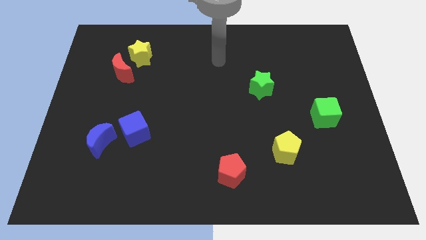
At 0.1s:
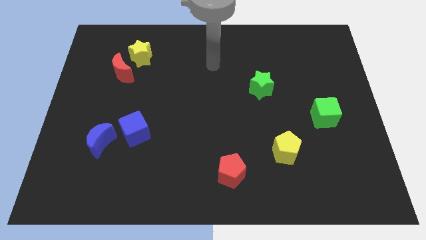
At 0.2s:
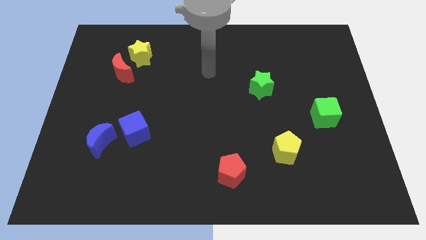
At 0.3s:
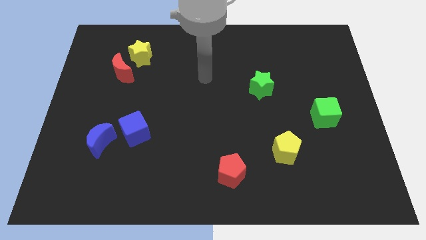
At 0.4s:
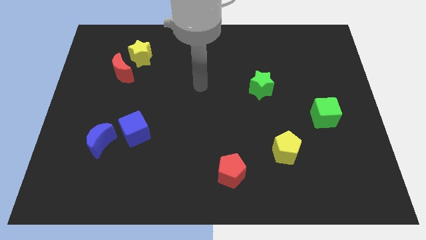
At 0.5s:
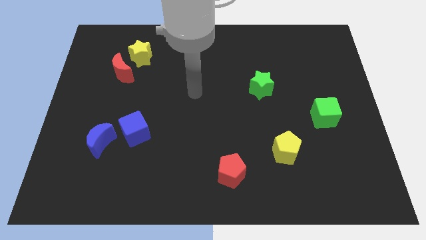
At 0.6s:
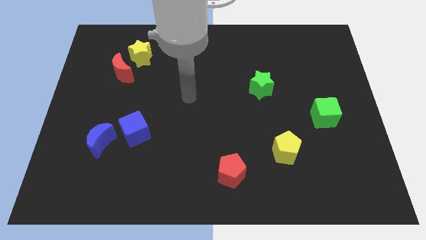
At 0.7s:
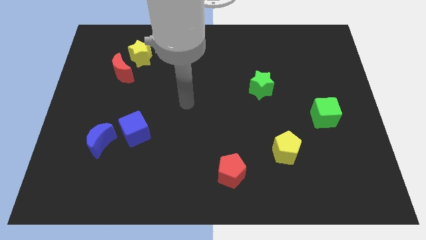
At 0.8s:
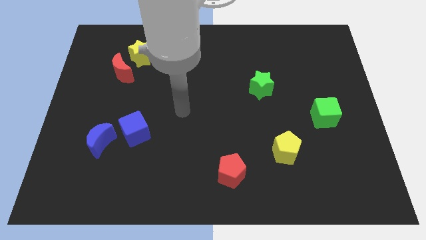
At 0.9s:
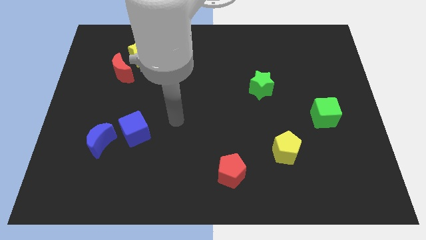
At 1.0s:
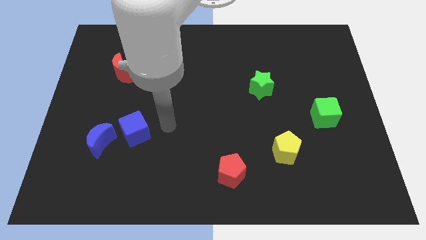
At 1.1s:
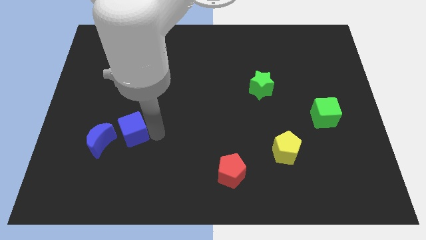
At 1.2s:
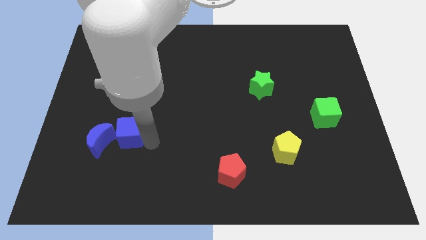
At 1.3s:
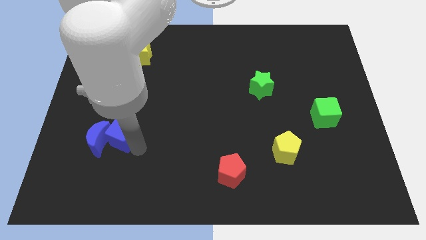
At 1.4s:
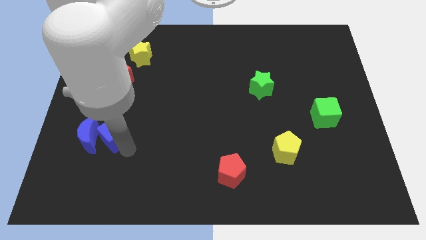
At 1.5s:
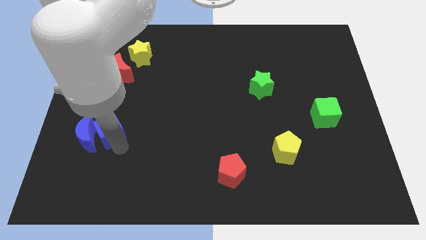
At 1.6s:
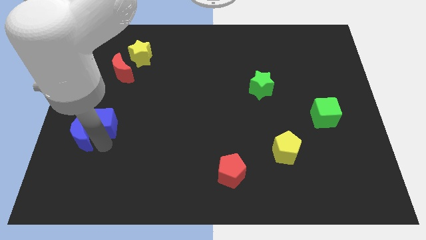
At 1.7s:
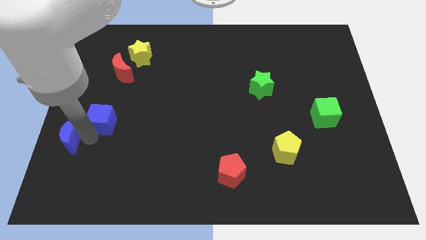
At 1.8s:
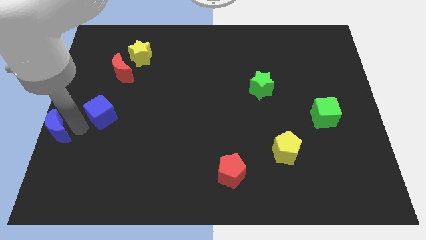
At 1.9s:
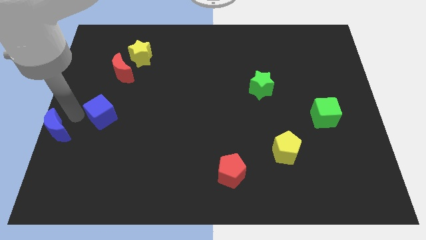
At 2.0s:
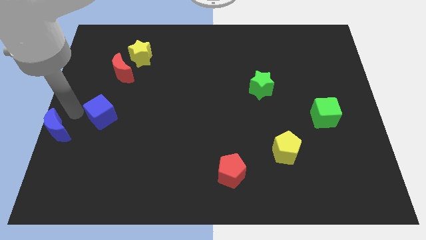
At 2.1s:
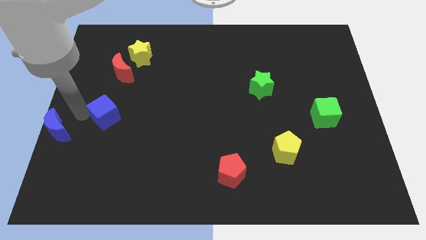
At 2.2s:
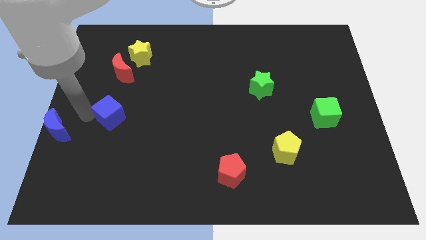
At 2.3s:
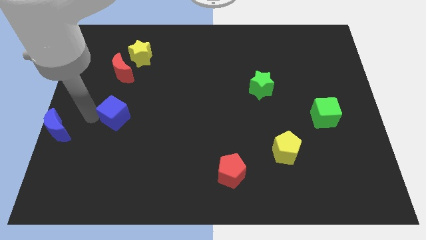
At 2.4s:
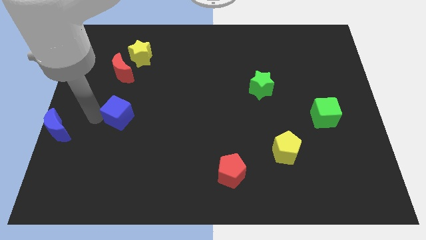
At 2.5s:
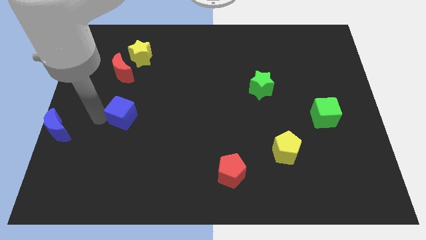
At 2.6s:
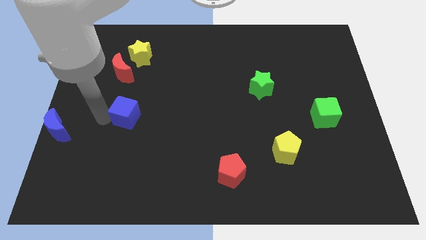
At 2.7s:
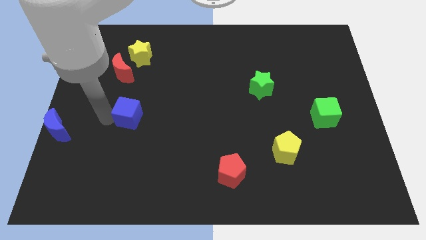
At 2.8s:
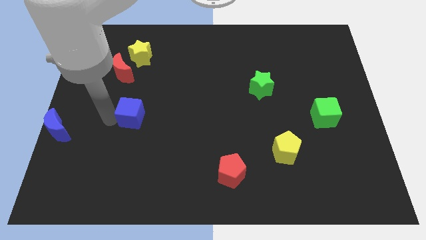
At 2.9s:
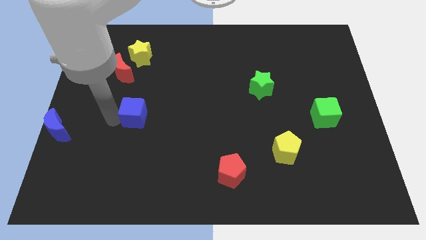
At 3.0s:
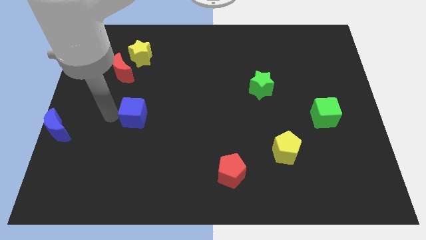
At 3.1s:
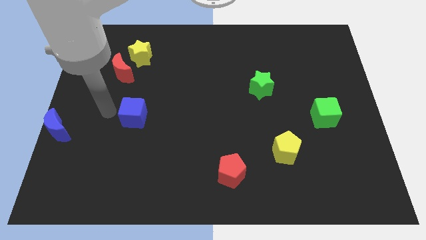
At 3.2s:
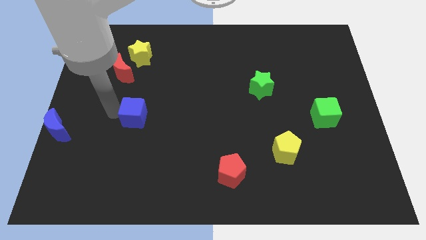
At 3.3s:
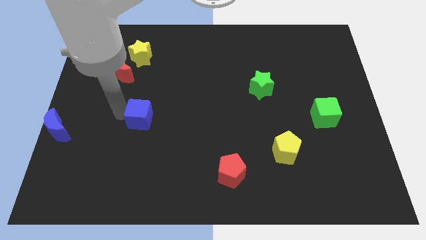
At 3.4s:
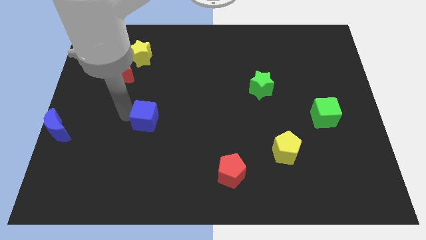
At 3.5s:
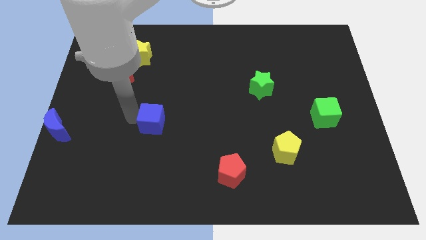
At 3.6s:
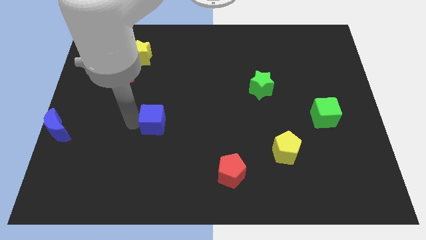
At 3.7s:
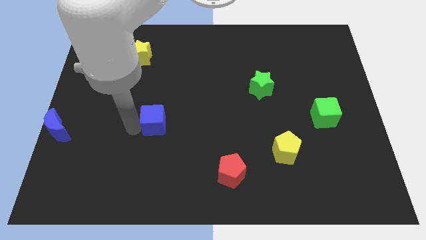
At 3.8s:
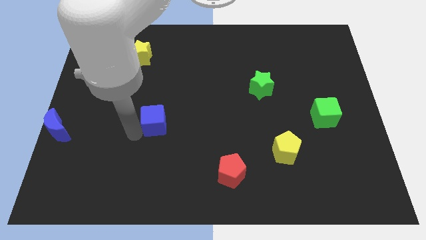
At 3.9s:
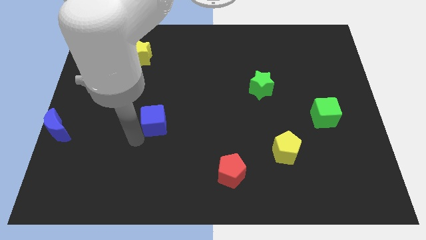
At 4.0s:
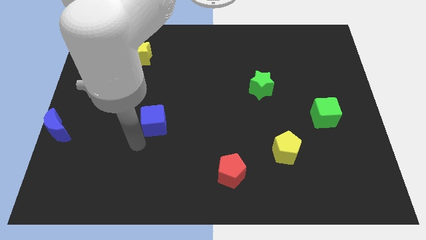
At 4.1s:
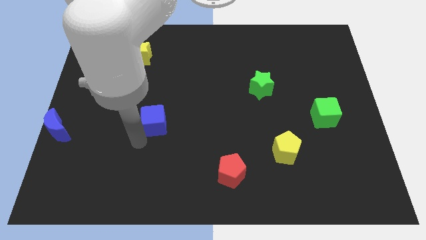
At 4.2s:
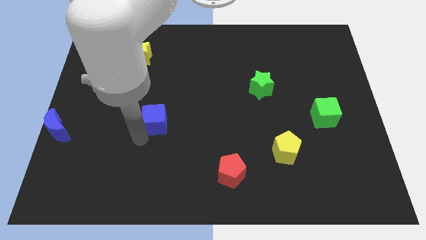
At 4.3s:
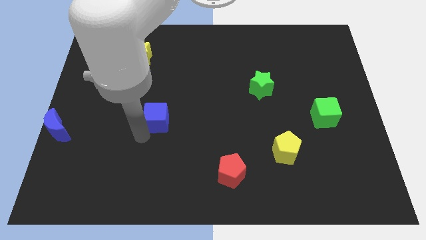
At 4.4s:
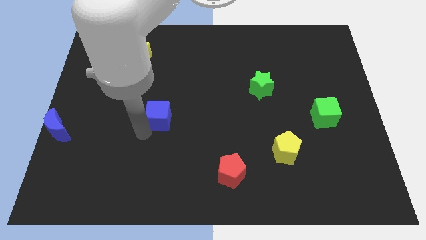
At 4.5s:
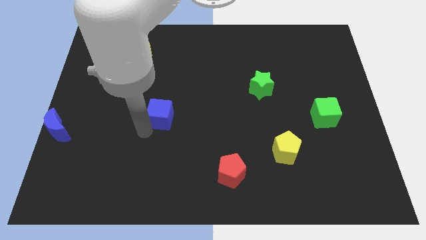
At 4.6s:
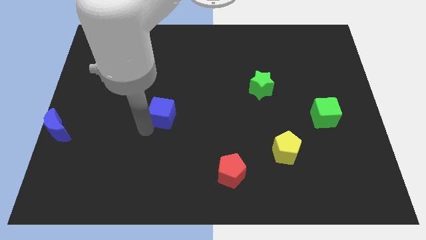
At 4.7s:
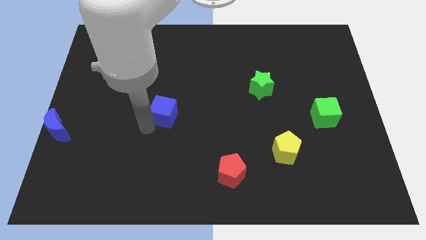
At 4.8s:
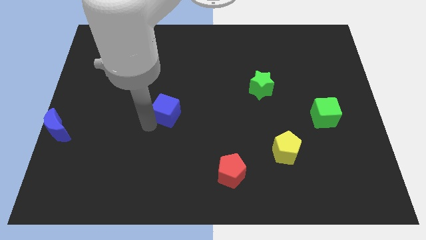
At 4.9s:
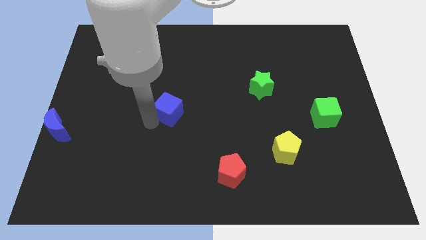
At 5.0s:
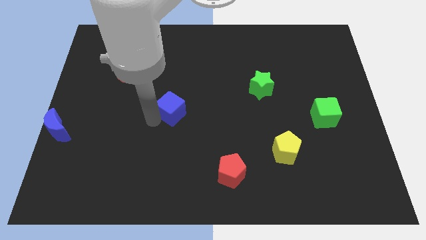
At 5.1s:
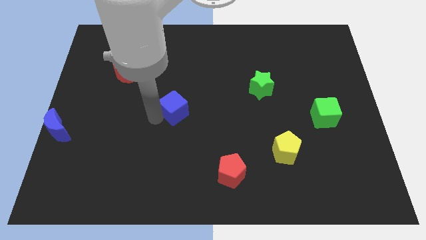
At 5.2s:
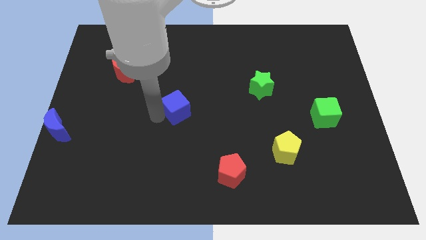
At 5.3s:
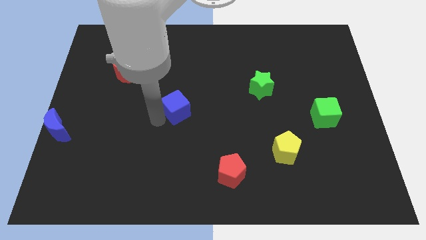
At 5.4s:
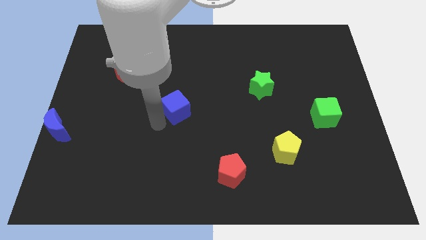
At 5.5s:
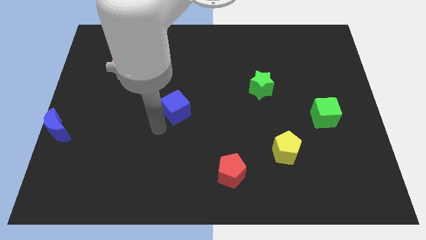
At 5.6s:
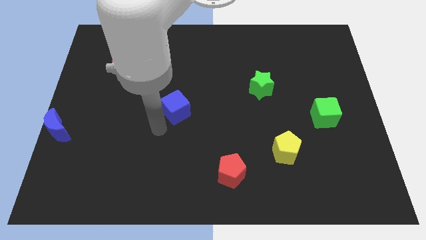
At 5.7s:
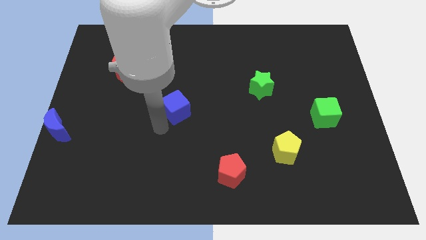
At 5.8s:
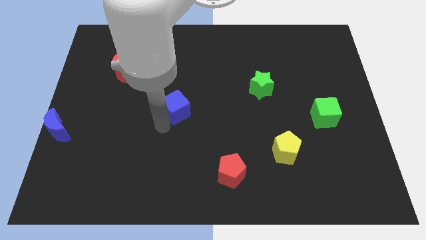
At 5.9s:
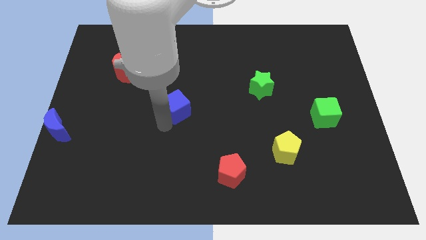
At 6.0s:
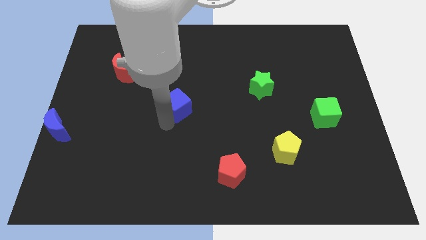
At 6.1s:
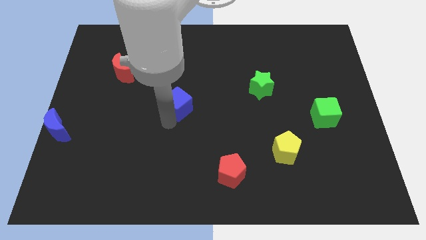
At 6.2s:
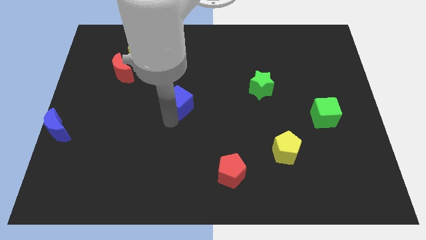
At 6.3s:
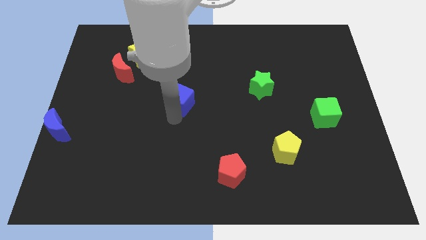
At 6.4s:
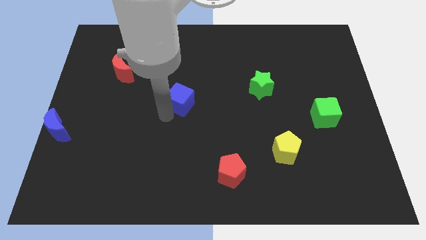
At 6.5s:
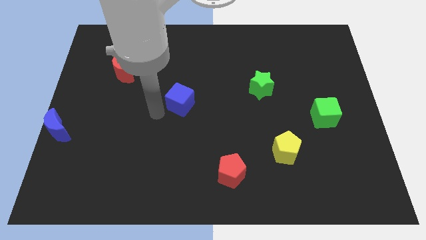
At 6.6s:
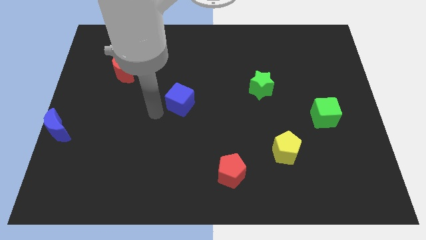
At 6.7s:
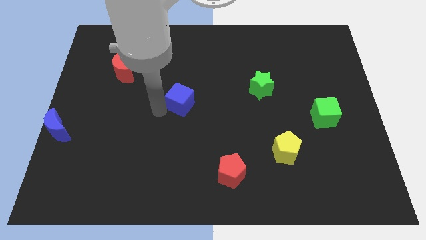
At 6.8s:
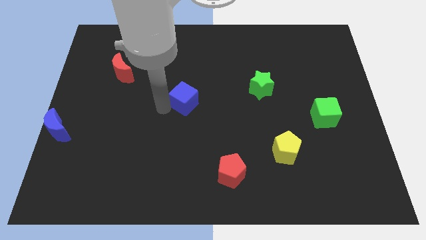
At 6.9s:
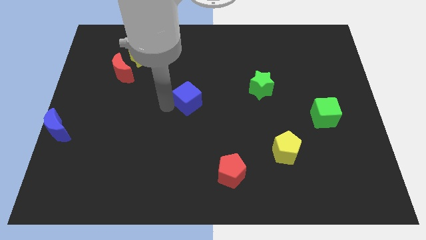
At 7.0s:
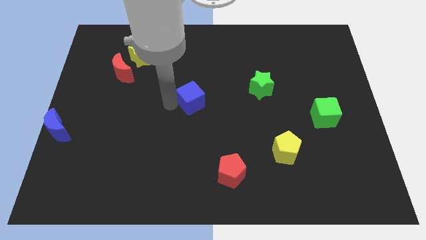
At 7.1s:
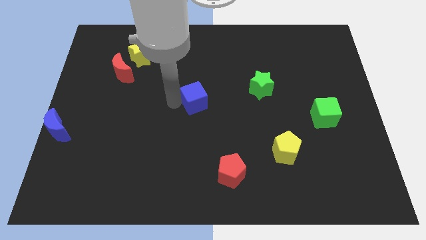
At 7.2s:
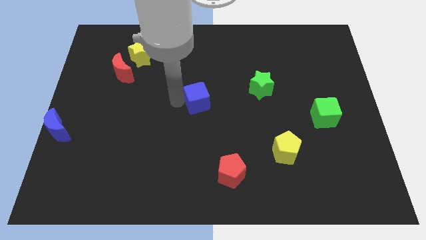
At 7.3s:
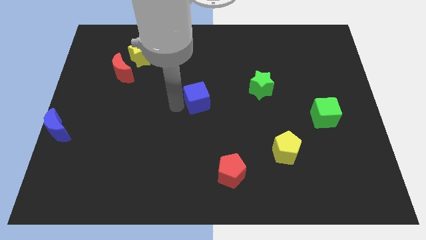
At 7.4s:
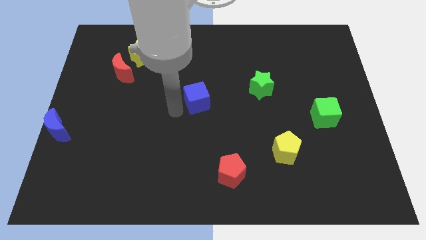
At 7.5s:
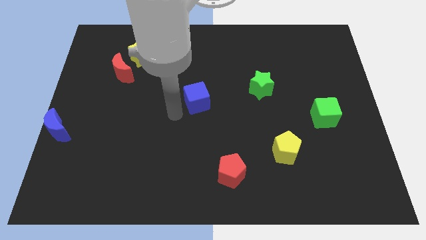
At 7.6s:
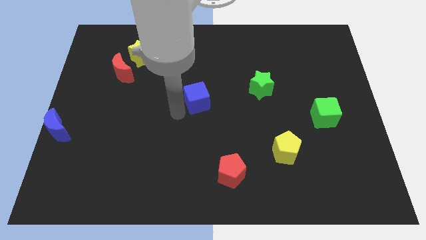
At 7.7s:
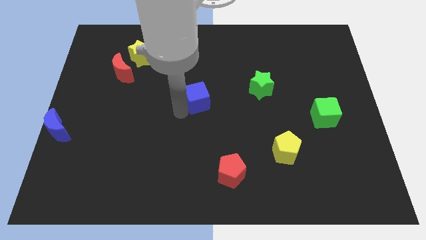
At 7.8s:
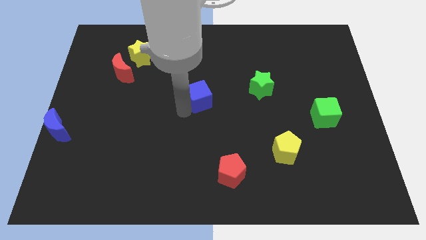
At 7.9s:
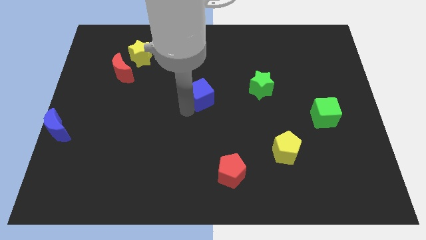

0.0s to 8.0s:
push the blue cube just left of the green star
